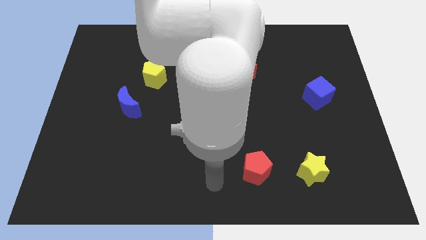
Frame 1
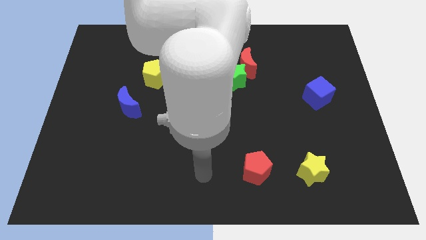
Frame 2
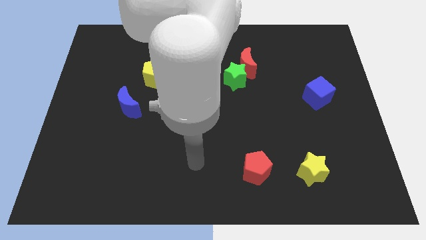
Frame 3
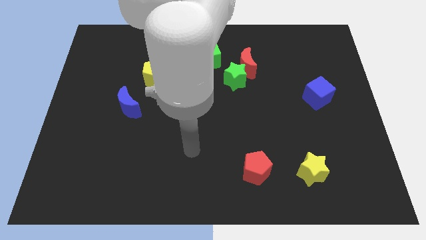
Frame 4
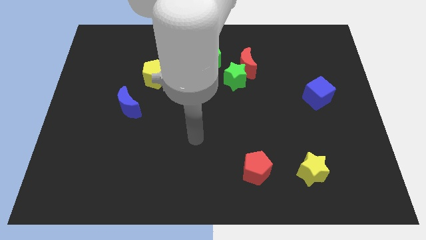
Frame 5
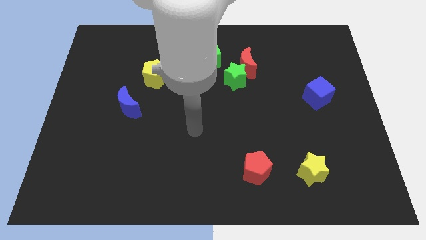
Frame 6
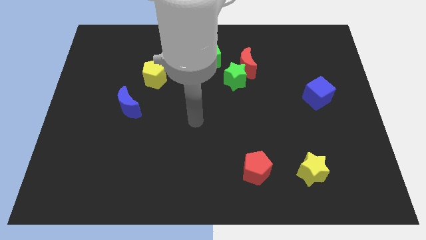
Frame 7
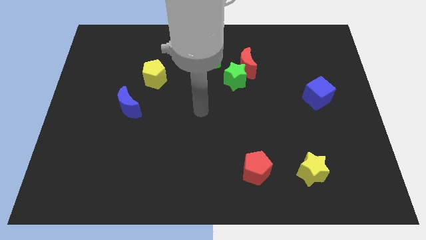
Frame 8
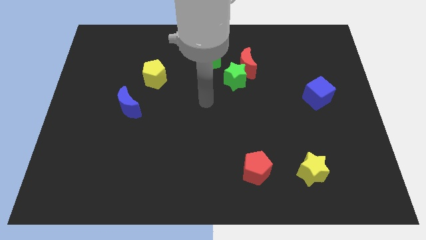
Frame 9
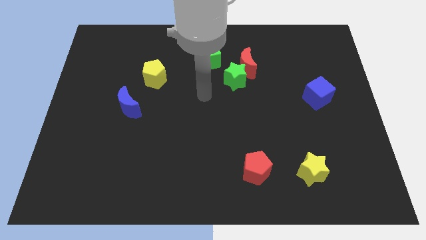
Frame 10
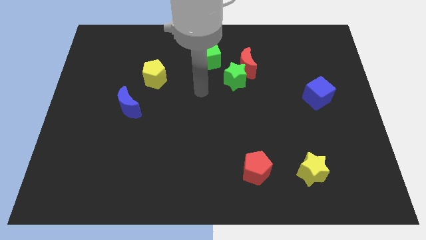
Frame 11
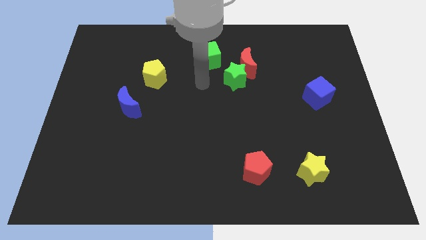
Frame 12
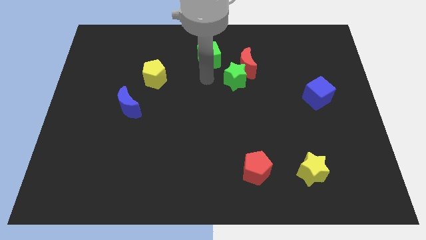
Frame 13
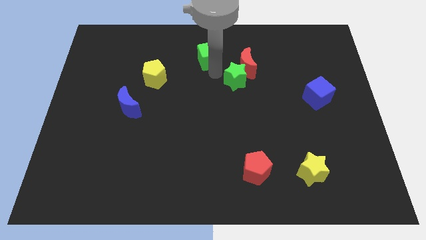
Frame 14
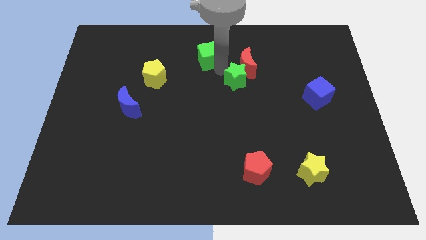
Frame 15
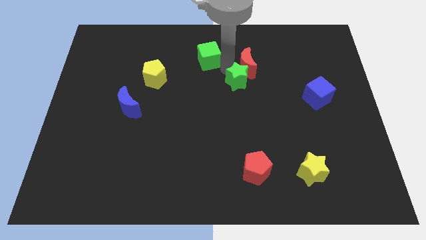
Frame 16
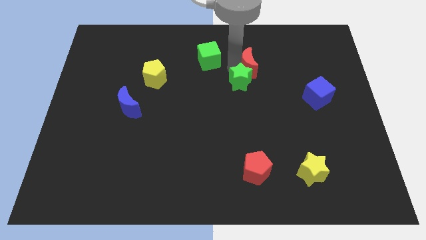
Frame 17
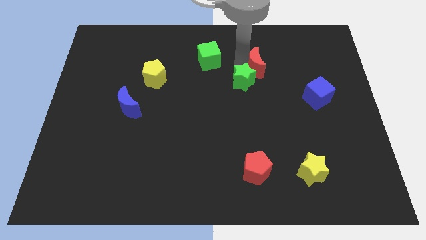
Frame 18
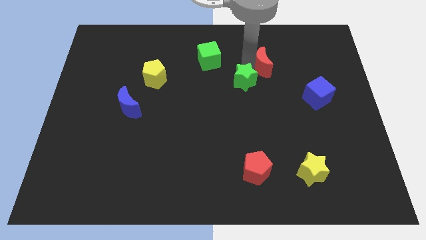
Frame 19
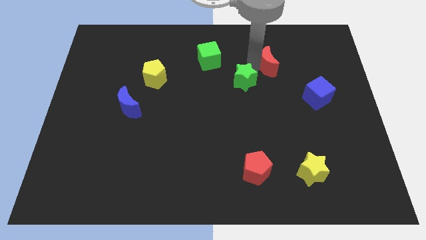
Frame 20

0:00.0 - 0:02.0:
pull the red moon apart from the green star and green cube

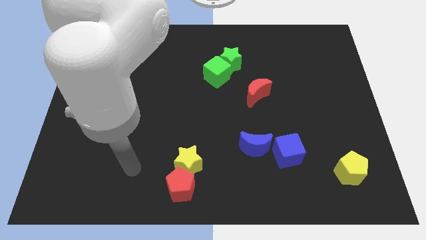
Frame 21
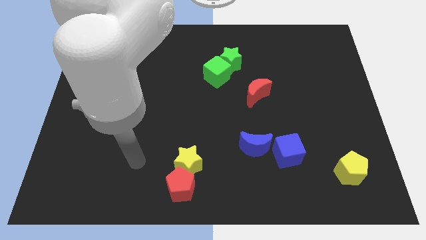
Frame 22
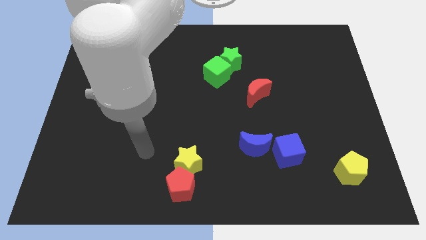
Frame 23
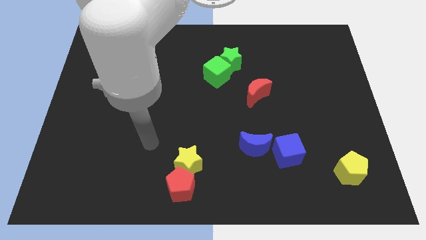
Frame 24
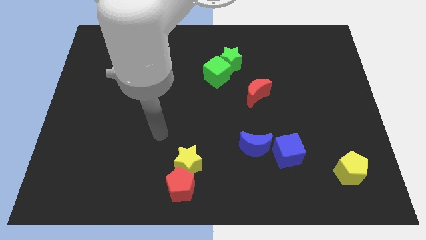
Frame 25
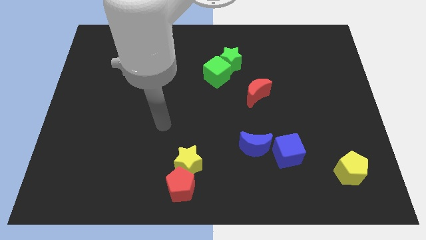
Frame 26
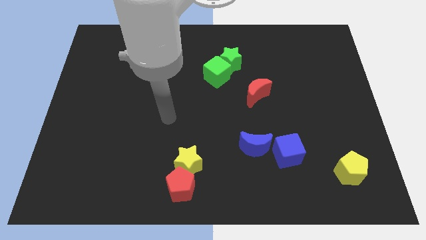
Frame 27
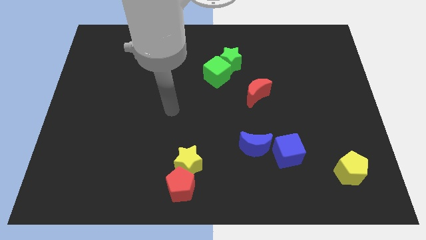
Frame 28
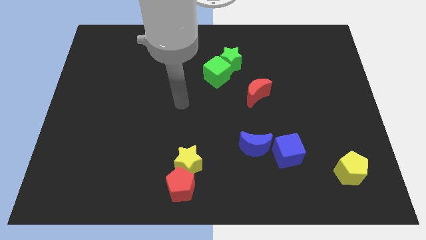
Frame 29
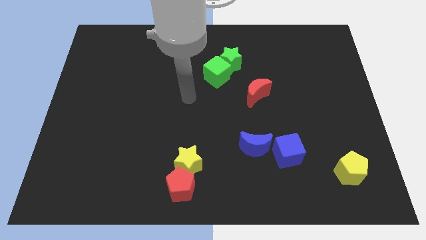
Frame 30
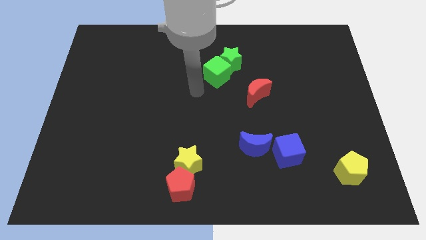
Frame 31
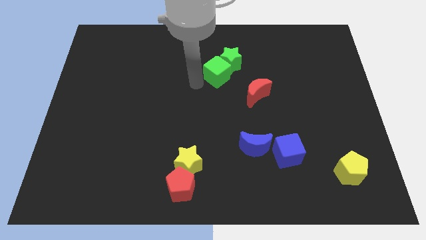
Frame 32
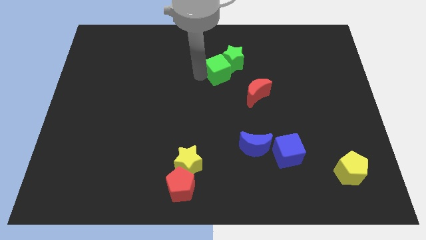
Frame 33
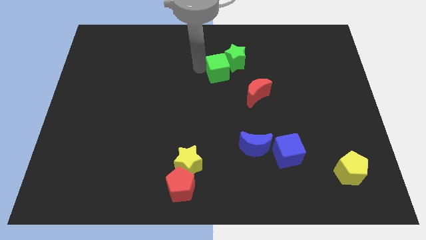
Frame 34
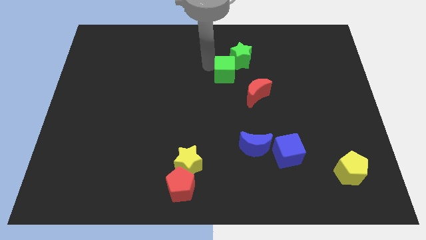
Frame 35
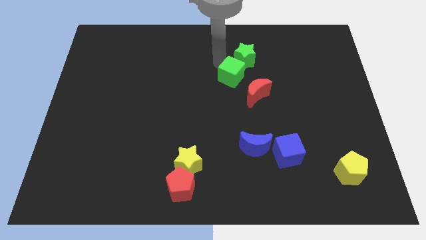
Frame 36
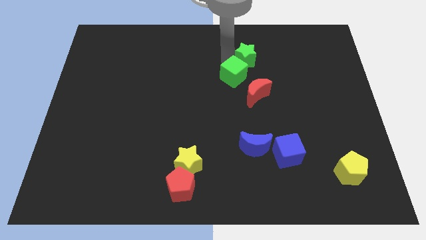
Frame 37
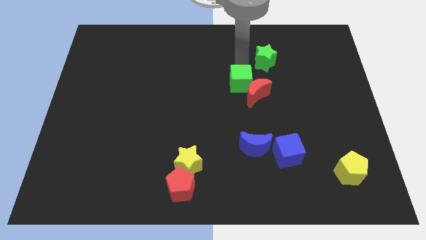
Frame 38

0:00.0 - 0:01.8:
move the green cube away from the green star

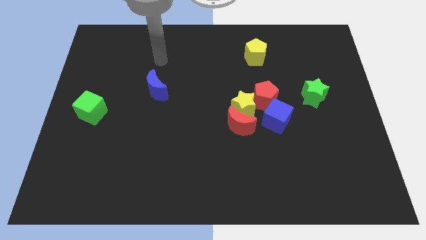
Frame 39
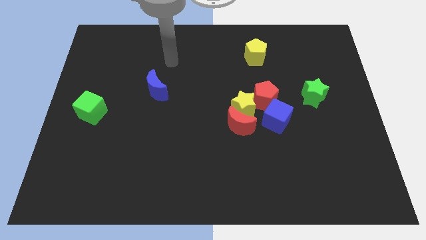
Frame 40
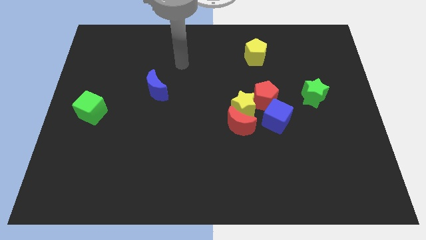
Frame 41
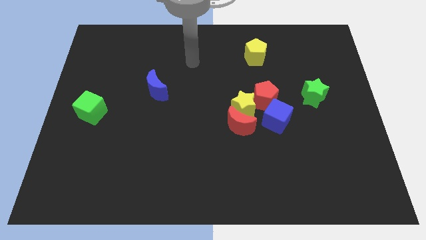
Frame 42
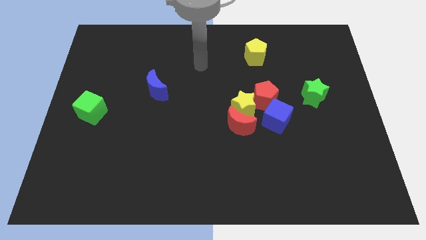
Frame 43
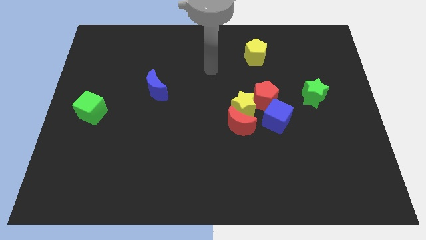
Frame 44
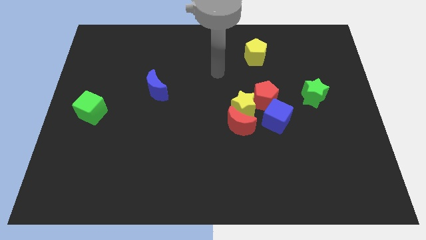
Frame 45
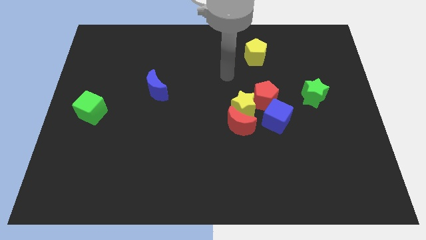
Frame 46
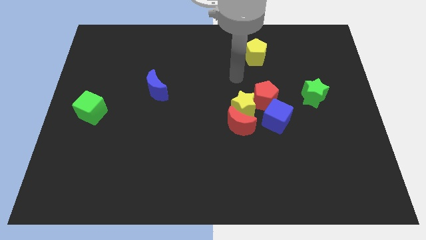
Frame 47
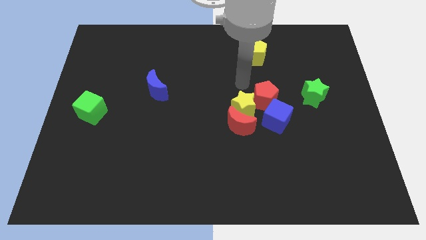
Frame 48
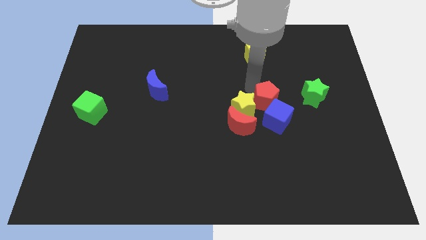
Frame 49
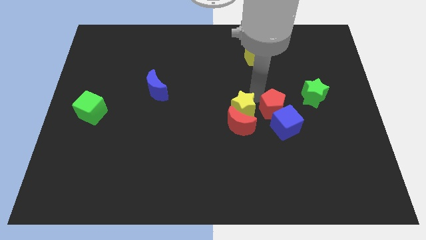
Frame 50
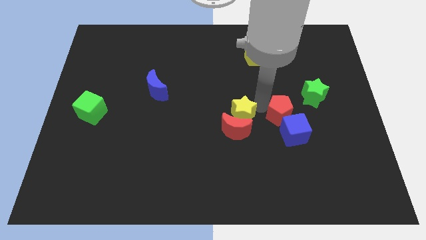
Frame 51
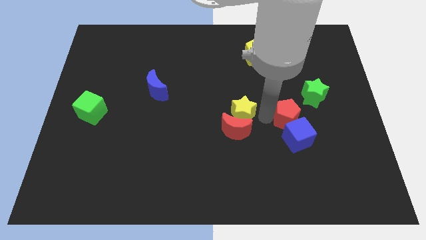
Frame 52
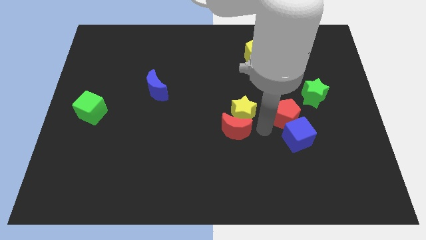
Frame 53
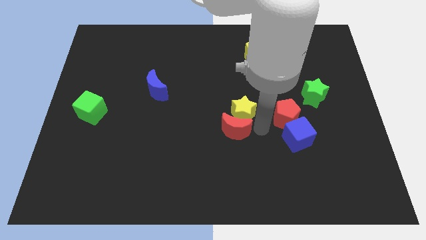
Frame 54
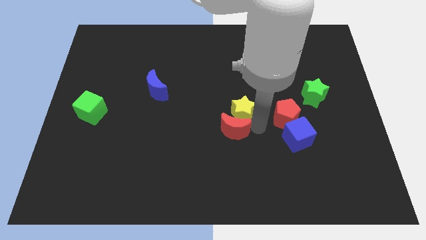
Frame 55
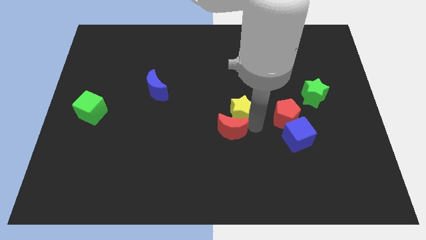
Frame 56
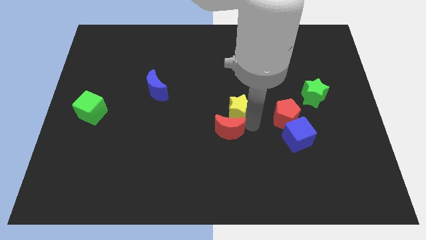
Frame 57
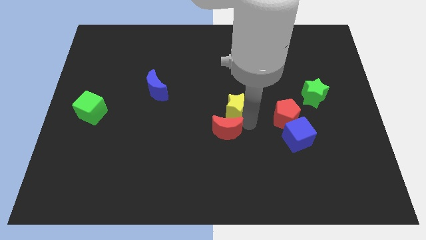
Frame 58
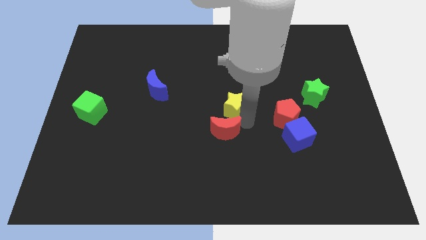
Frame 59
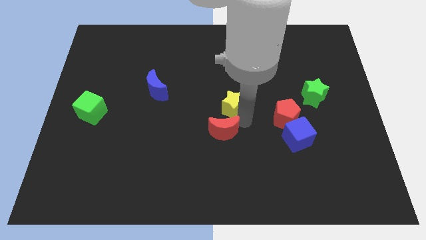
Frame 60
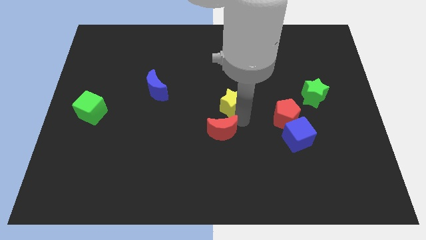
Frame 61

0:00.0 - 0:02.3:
move the yellow star away from the red moon, red pentagon, and blue cube

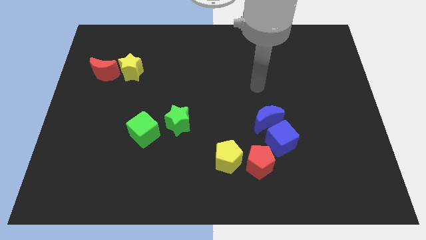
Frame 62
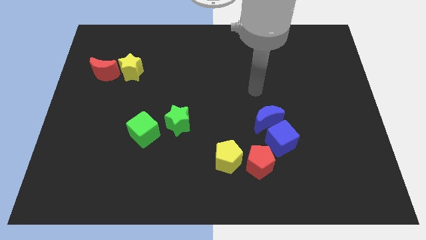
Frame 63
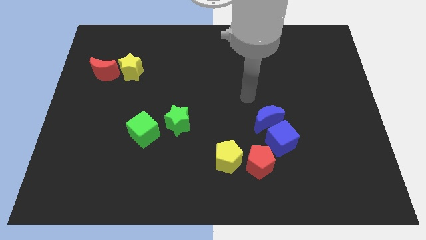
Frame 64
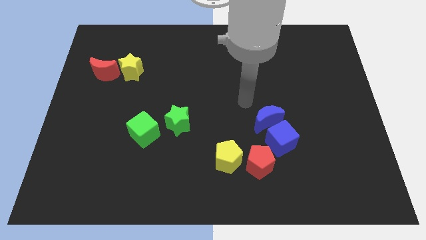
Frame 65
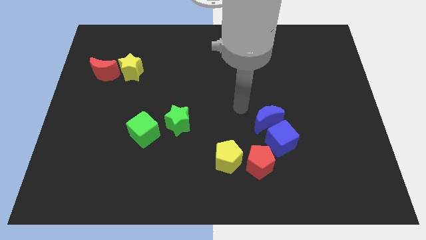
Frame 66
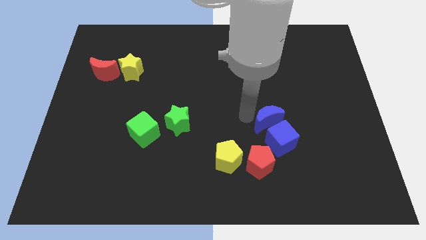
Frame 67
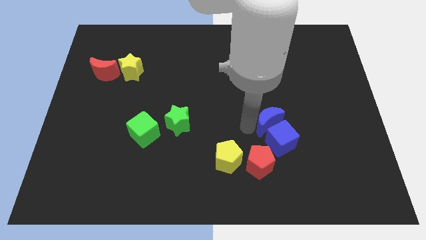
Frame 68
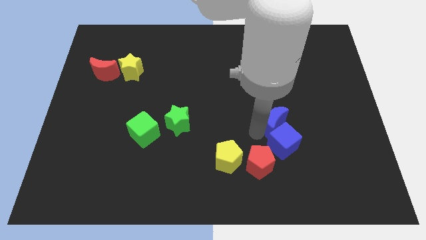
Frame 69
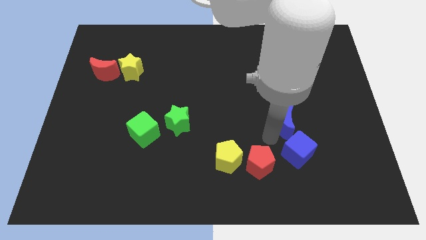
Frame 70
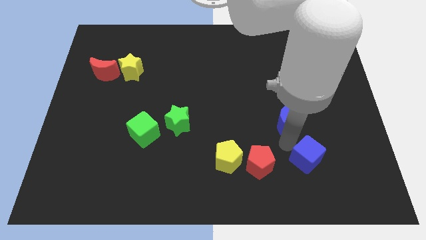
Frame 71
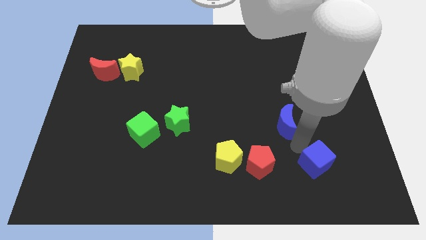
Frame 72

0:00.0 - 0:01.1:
move the blue moon away from the blue cube

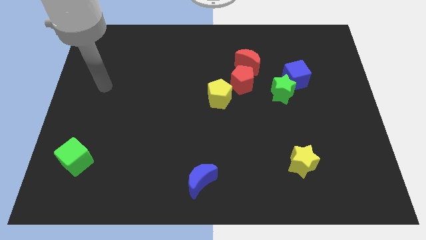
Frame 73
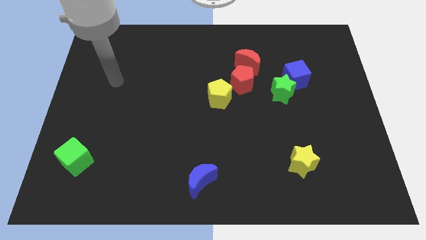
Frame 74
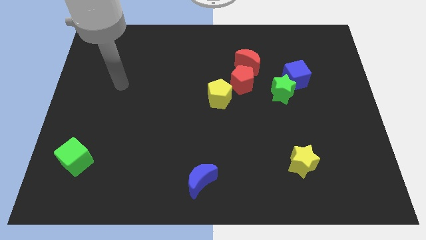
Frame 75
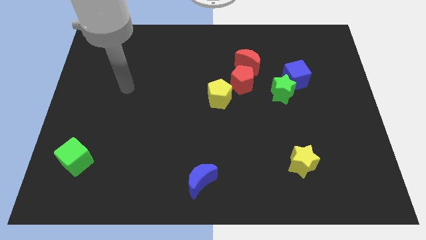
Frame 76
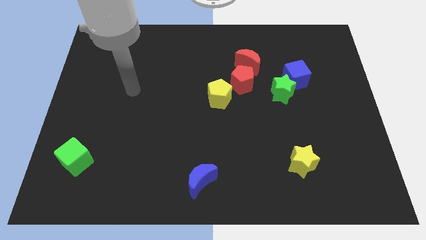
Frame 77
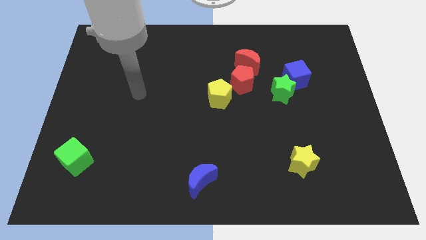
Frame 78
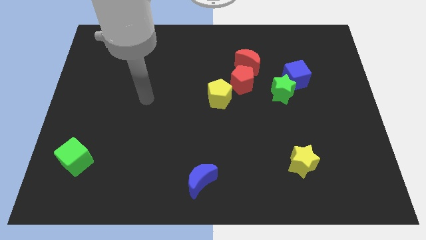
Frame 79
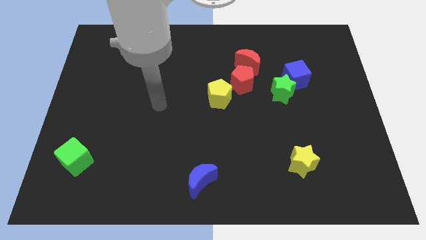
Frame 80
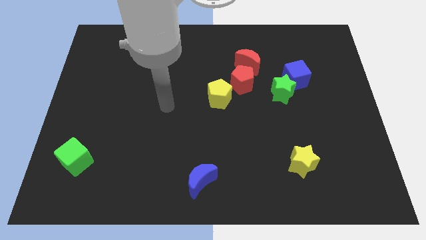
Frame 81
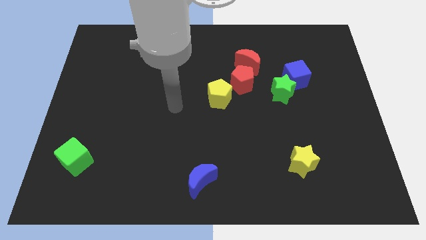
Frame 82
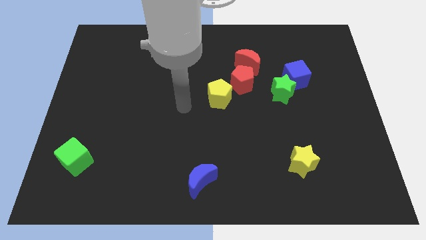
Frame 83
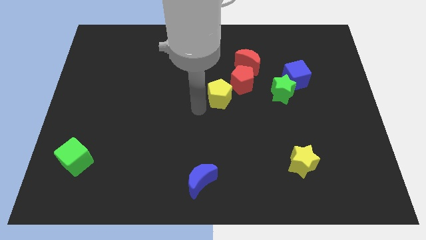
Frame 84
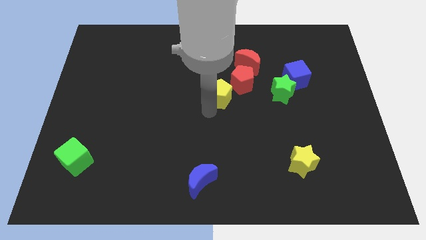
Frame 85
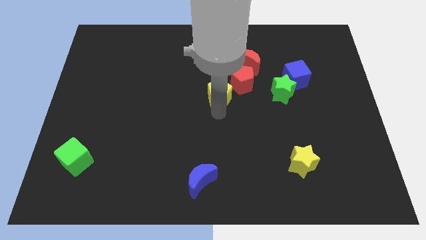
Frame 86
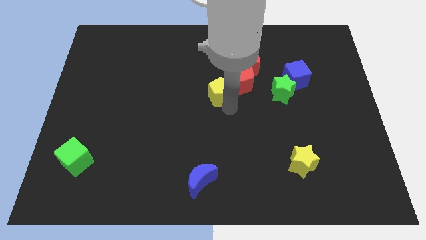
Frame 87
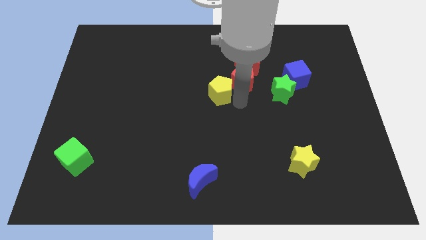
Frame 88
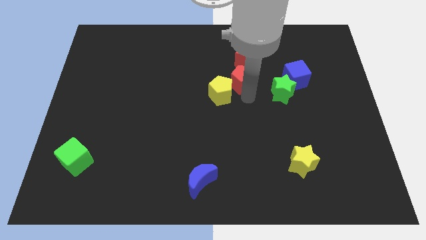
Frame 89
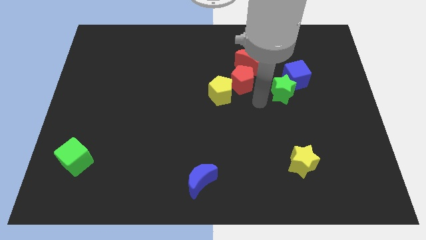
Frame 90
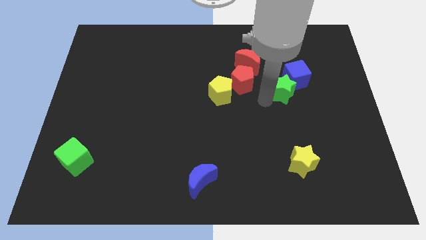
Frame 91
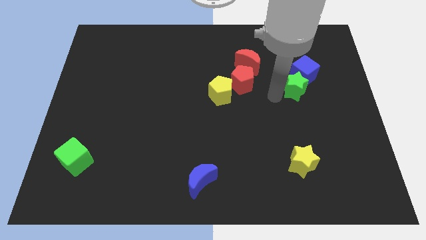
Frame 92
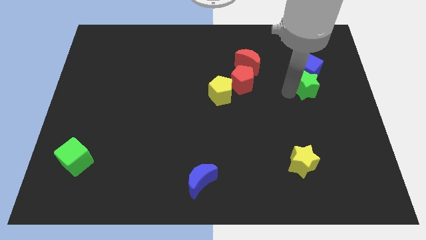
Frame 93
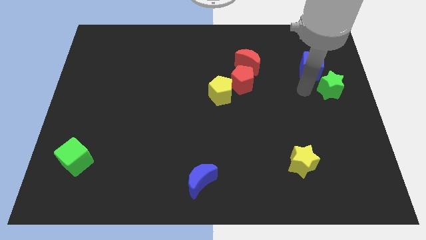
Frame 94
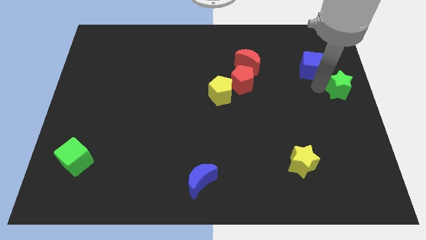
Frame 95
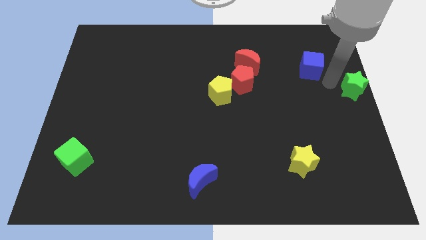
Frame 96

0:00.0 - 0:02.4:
pull the blue cube apart from the green star
